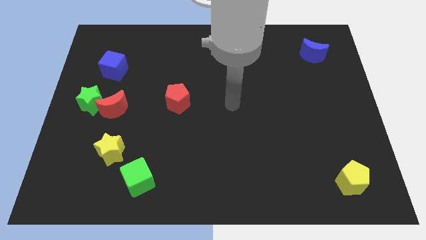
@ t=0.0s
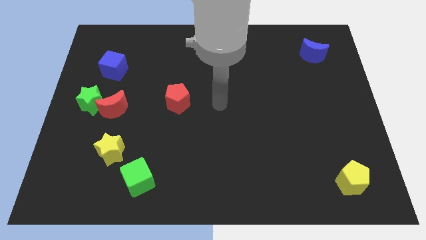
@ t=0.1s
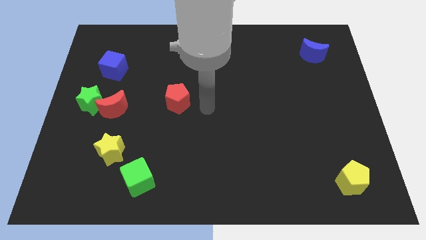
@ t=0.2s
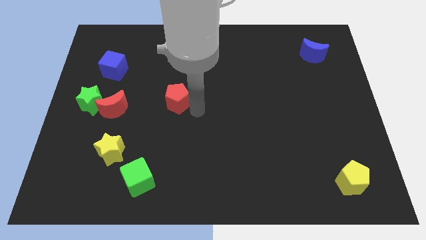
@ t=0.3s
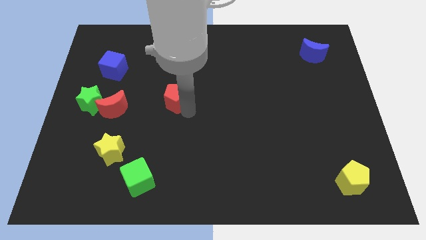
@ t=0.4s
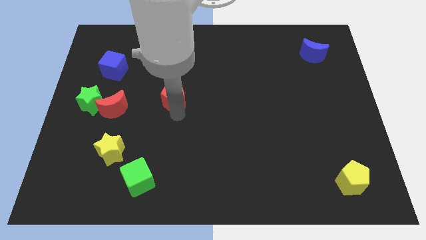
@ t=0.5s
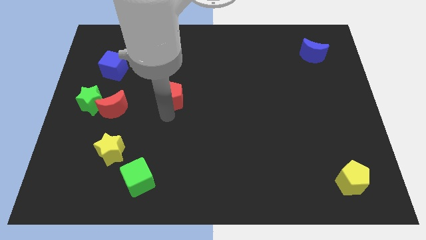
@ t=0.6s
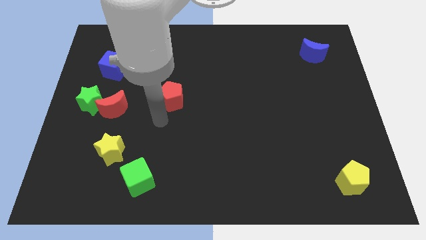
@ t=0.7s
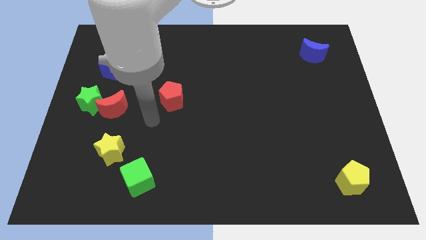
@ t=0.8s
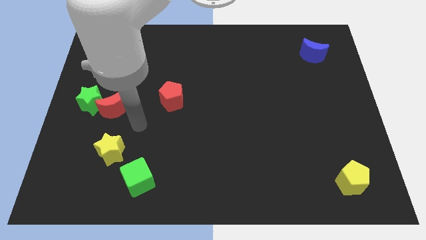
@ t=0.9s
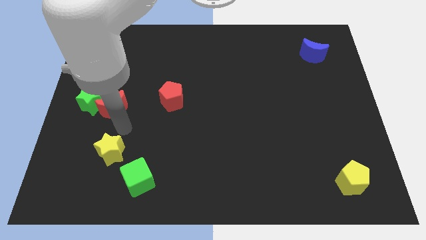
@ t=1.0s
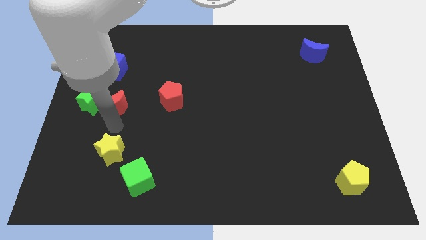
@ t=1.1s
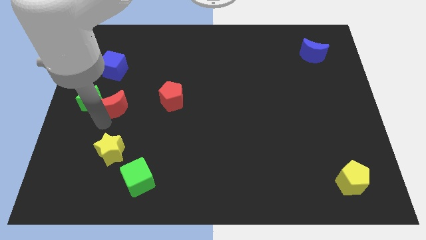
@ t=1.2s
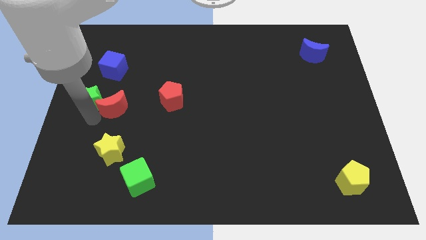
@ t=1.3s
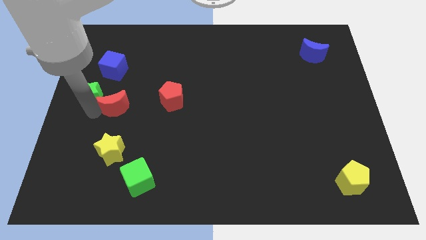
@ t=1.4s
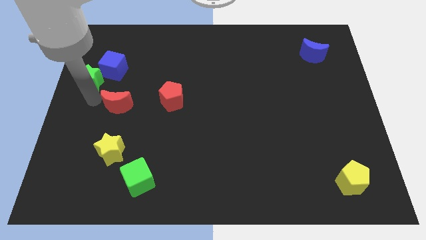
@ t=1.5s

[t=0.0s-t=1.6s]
pull the red moon apart from the green star

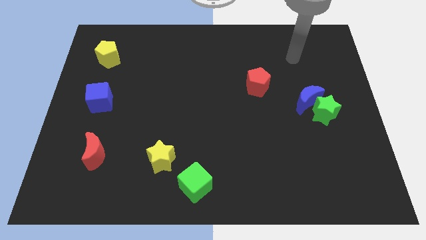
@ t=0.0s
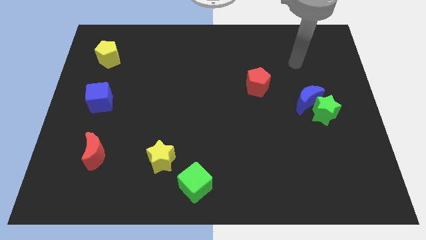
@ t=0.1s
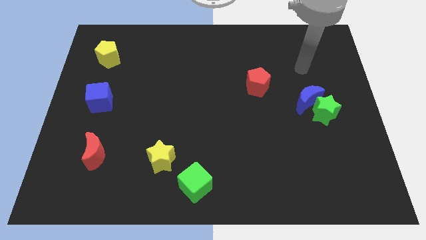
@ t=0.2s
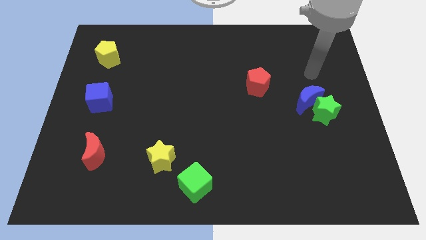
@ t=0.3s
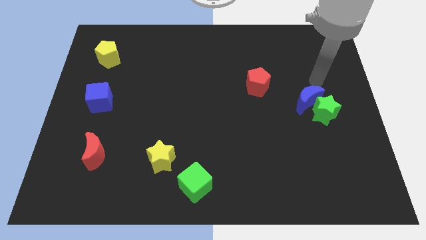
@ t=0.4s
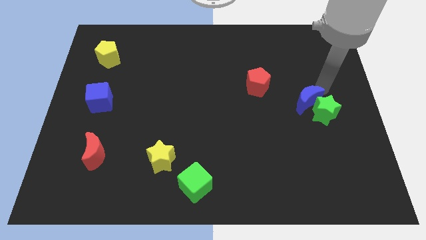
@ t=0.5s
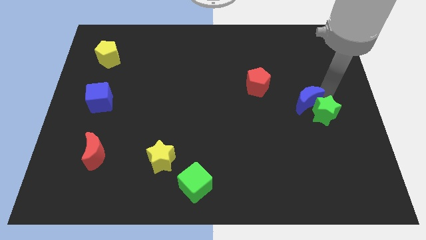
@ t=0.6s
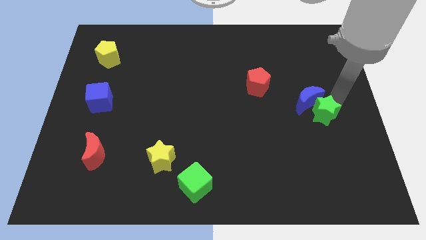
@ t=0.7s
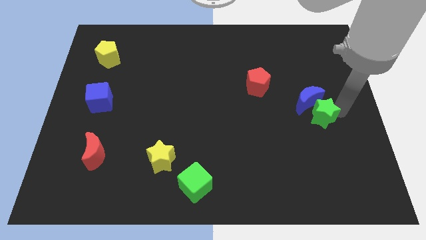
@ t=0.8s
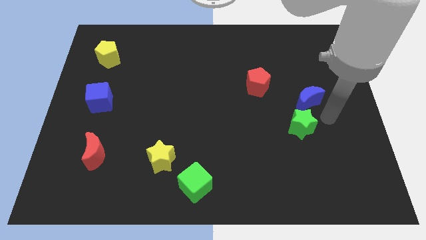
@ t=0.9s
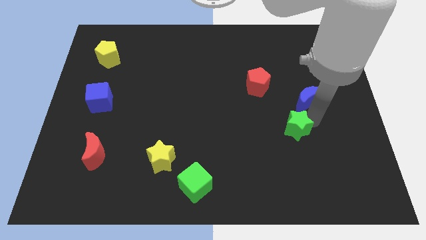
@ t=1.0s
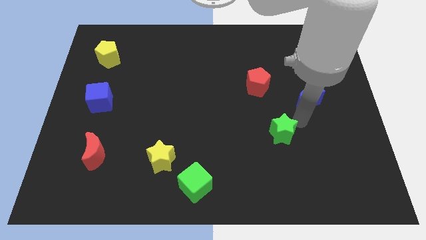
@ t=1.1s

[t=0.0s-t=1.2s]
separate the blue moon from the green star

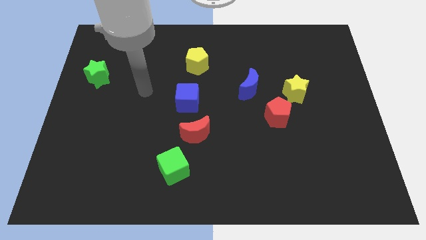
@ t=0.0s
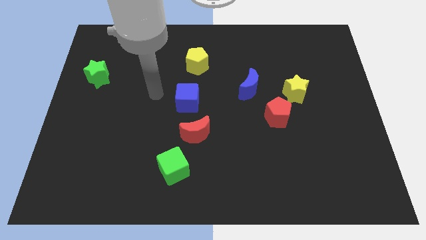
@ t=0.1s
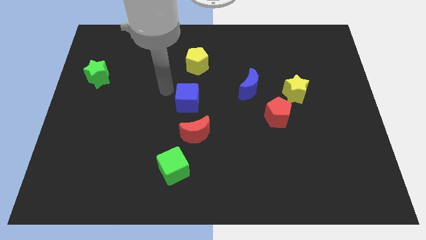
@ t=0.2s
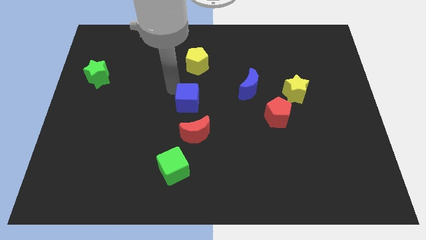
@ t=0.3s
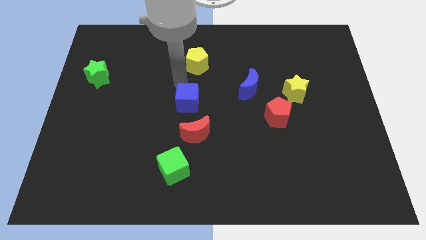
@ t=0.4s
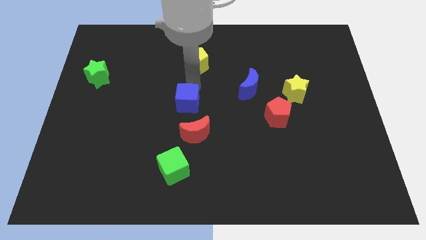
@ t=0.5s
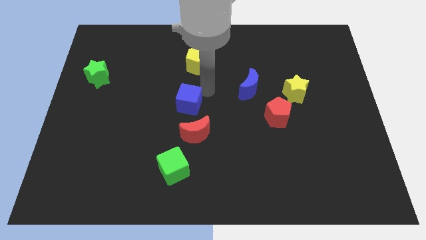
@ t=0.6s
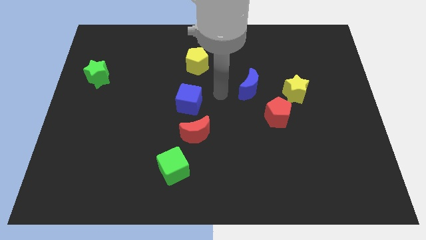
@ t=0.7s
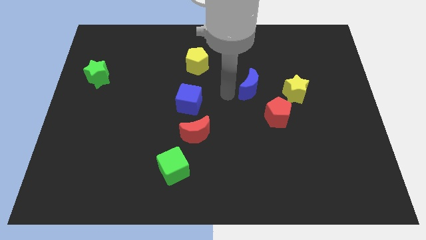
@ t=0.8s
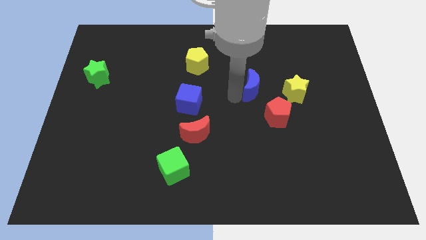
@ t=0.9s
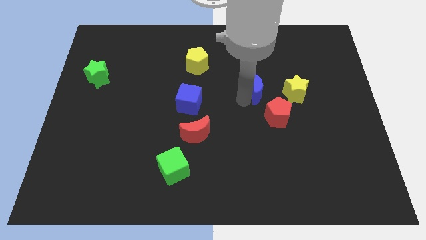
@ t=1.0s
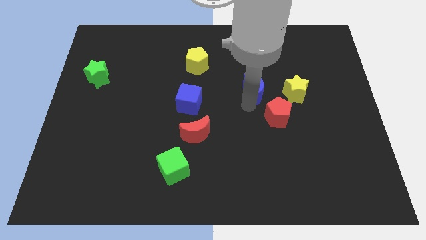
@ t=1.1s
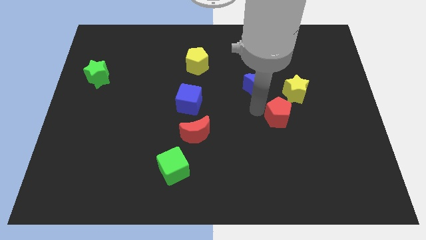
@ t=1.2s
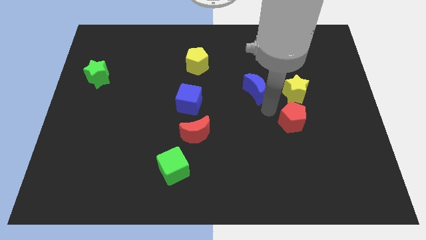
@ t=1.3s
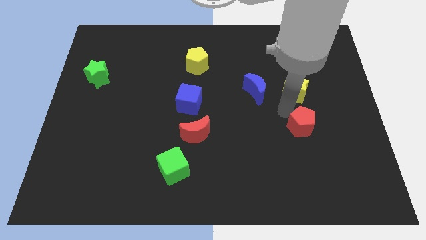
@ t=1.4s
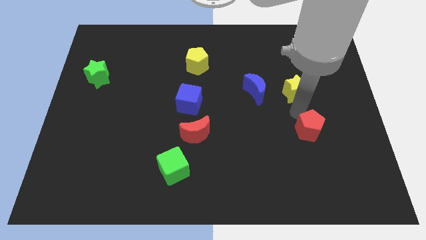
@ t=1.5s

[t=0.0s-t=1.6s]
move the yellow star away from the red pentagon

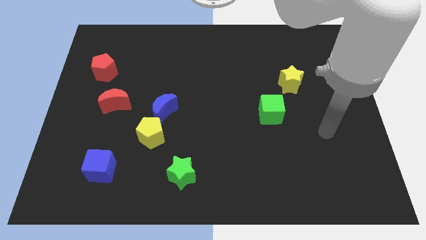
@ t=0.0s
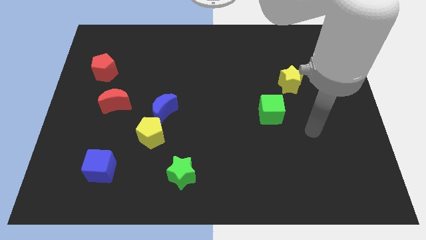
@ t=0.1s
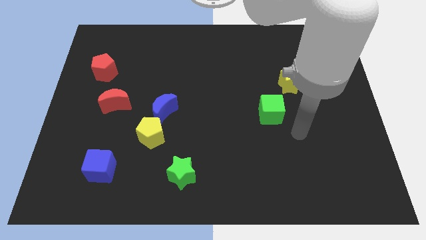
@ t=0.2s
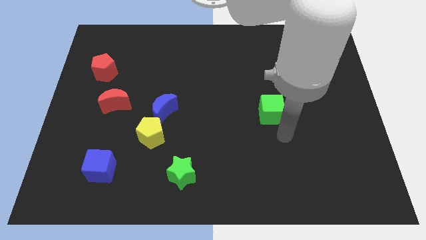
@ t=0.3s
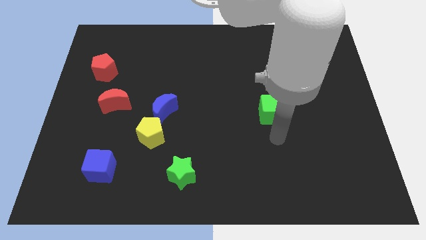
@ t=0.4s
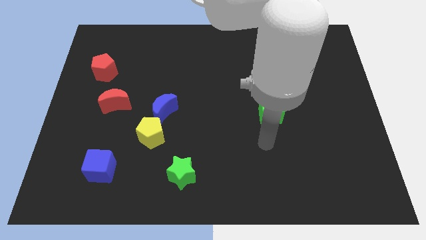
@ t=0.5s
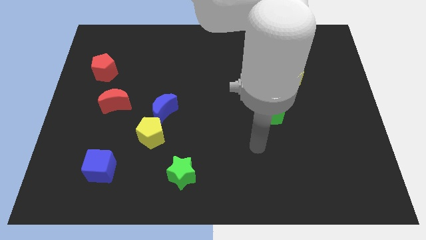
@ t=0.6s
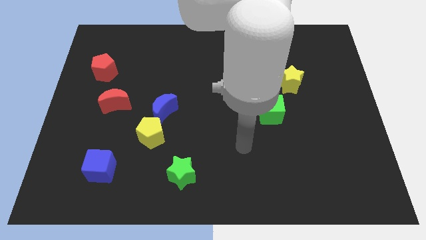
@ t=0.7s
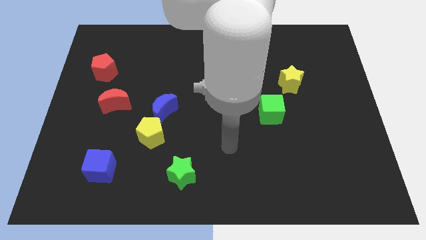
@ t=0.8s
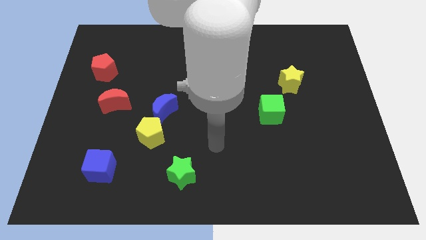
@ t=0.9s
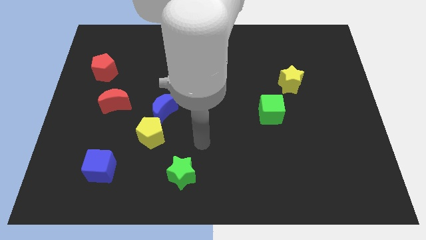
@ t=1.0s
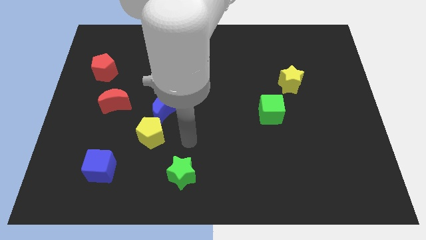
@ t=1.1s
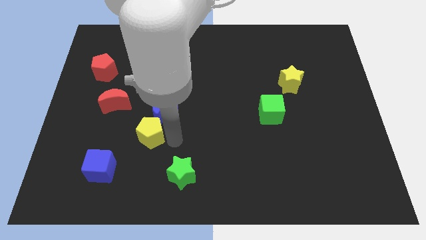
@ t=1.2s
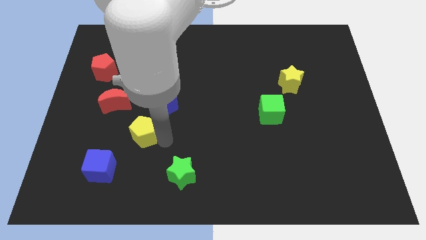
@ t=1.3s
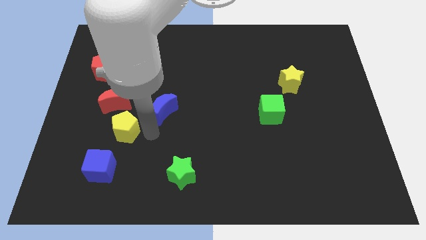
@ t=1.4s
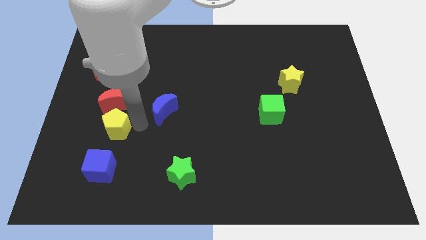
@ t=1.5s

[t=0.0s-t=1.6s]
move the blue moon away from the yellow pentagon

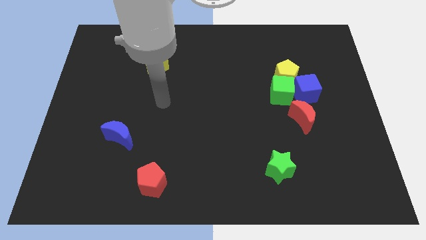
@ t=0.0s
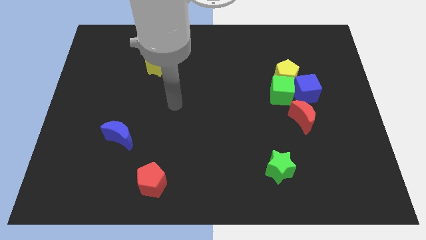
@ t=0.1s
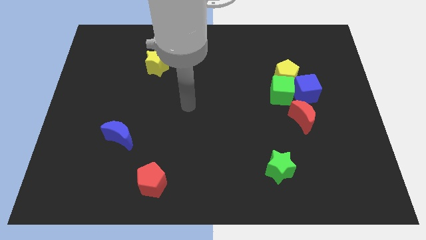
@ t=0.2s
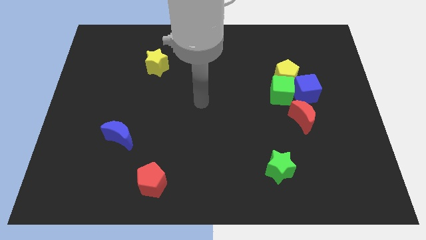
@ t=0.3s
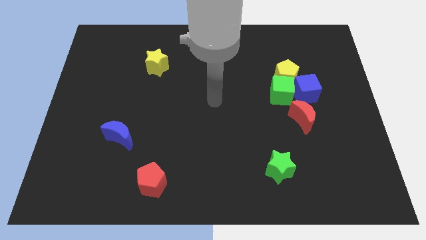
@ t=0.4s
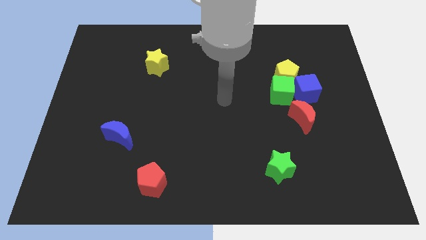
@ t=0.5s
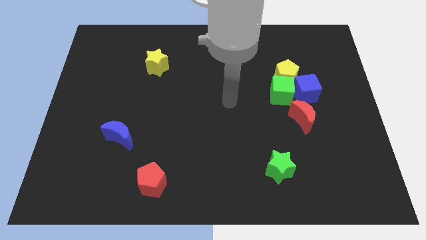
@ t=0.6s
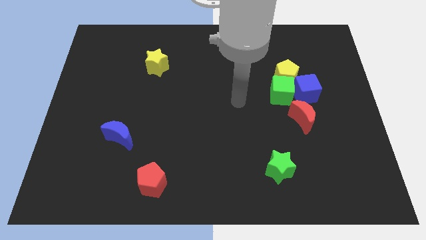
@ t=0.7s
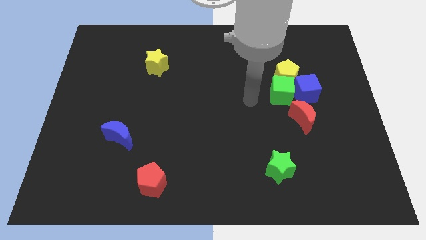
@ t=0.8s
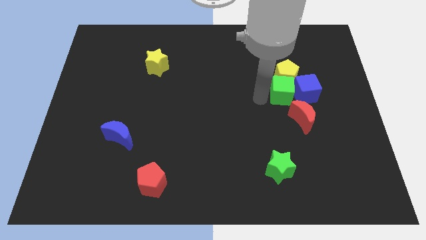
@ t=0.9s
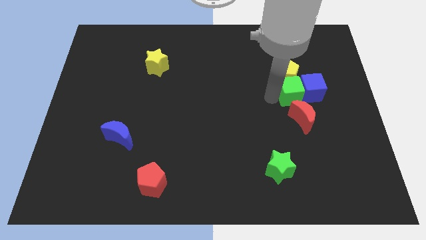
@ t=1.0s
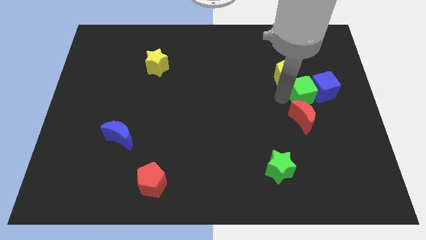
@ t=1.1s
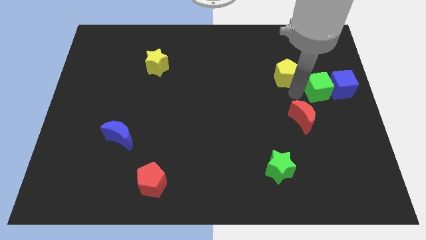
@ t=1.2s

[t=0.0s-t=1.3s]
pull the yellow pentagon apart from the green cube and blue cube

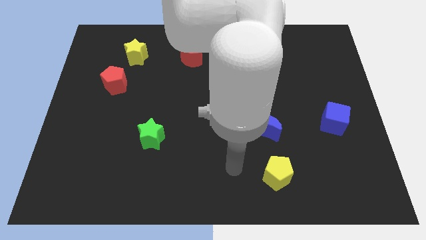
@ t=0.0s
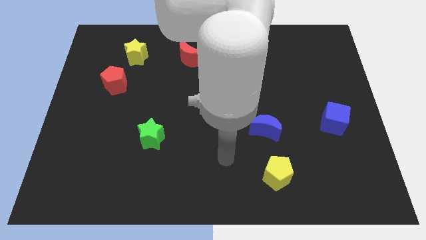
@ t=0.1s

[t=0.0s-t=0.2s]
pull the red pentagon apart from the yellow star

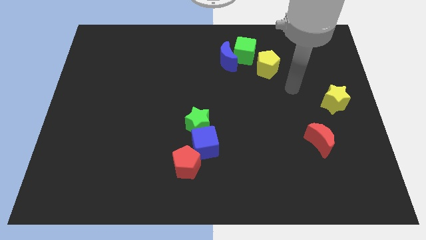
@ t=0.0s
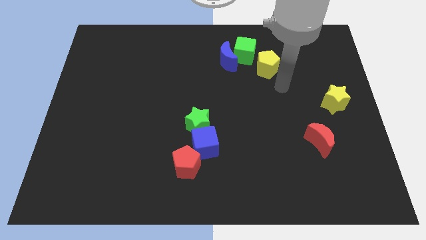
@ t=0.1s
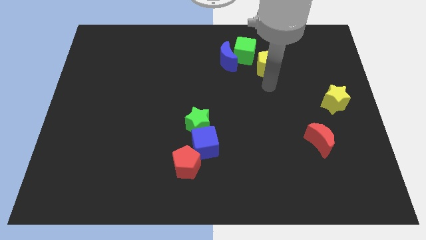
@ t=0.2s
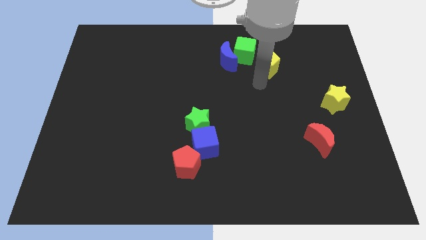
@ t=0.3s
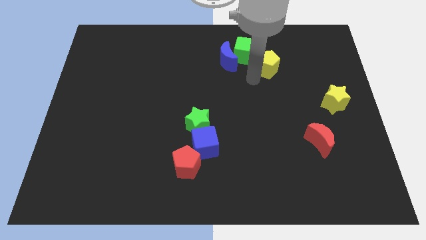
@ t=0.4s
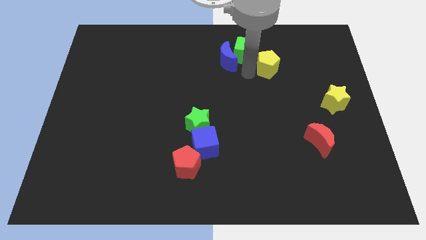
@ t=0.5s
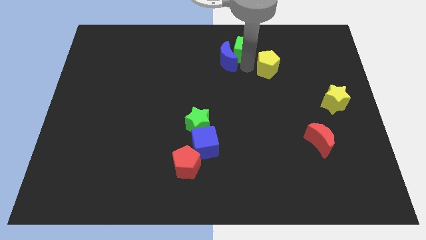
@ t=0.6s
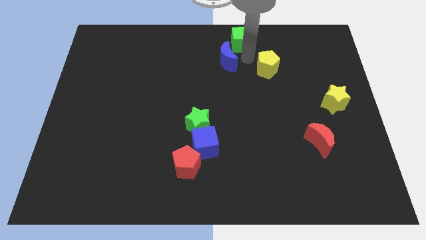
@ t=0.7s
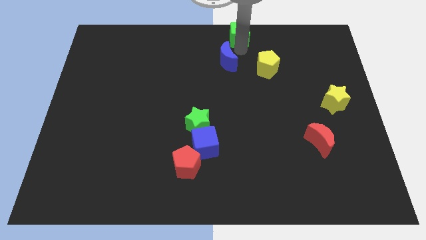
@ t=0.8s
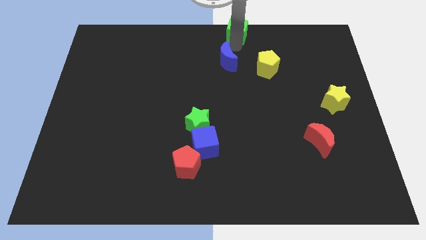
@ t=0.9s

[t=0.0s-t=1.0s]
pull the blue moon apart from the green cube

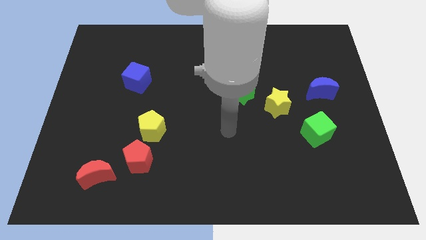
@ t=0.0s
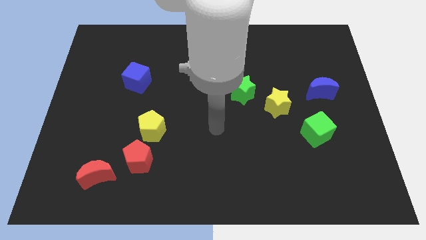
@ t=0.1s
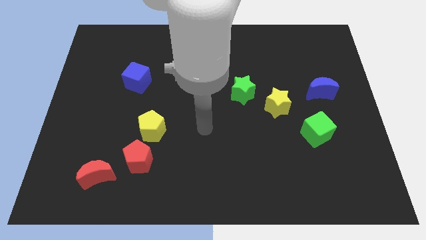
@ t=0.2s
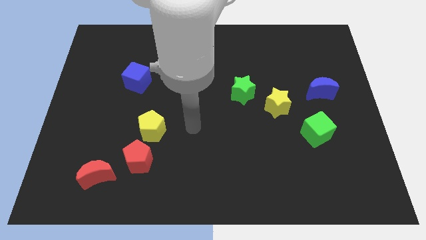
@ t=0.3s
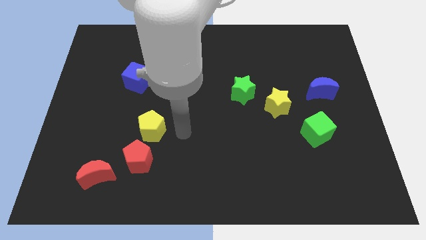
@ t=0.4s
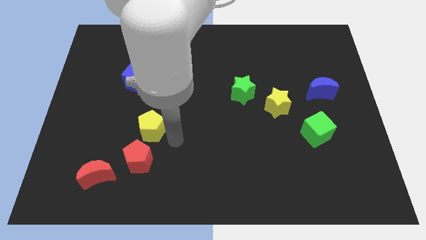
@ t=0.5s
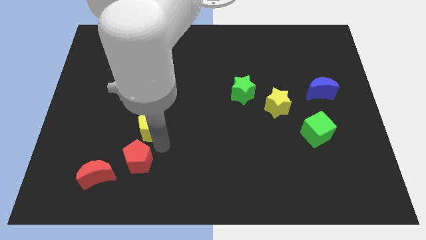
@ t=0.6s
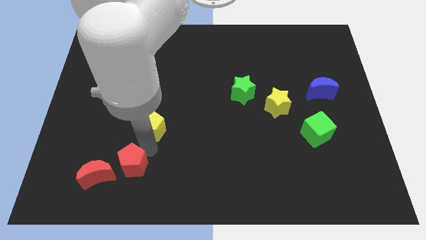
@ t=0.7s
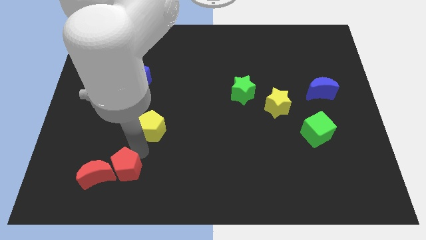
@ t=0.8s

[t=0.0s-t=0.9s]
separate the yellow pentagon from the red pentagon
